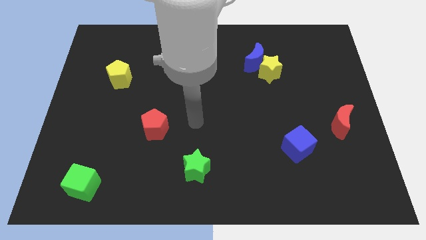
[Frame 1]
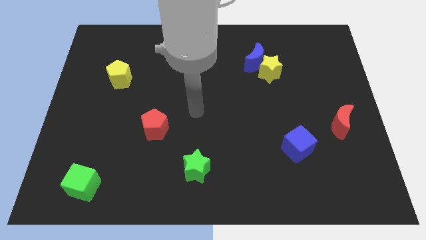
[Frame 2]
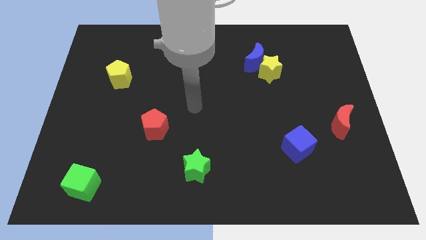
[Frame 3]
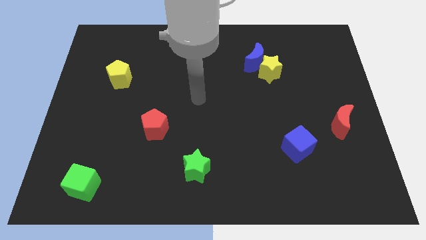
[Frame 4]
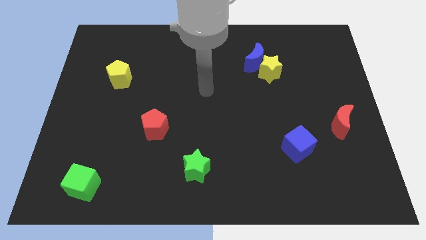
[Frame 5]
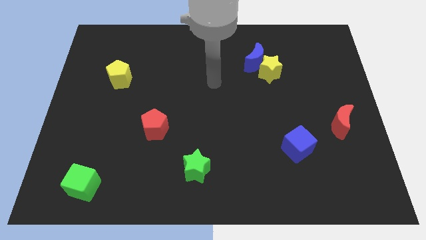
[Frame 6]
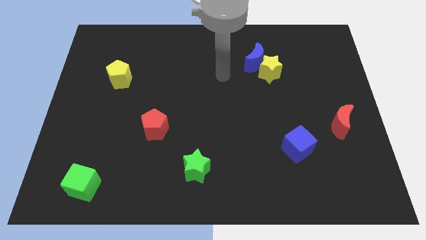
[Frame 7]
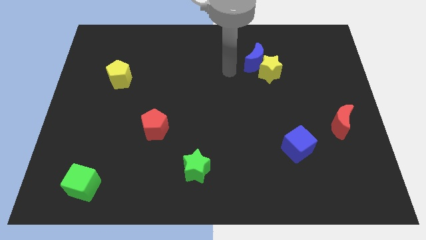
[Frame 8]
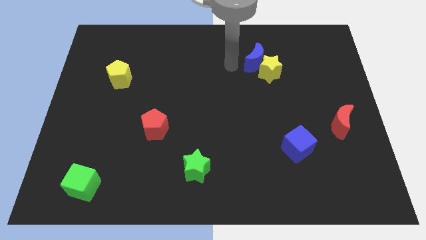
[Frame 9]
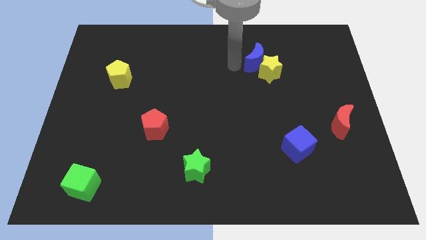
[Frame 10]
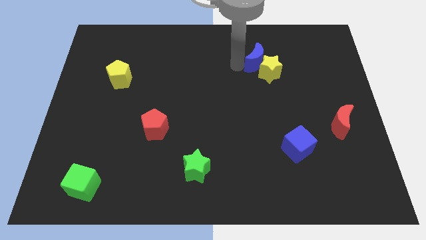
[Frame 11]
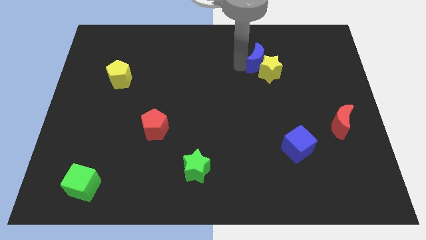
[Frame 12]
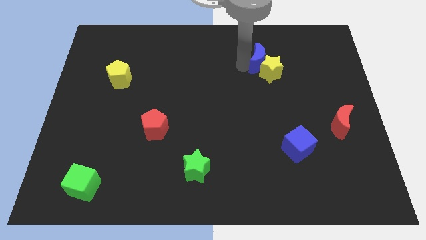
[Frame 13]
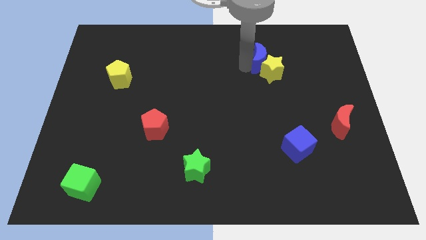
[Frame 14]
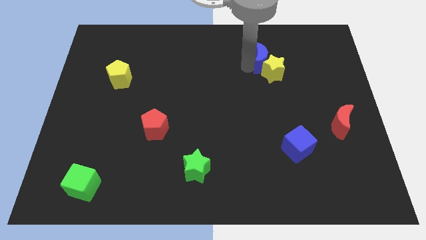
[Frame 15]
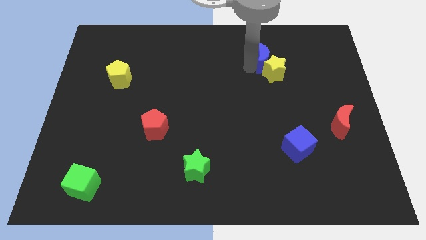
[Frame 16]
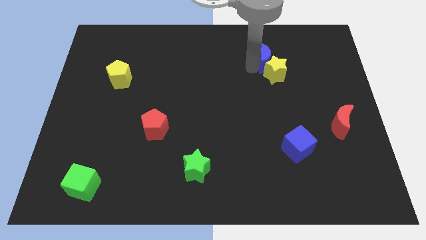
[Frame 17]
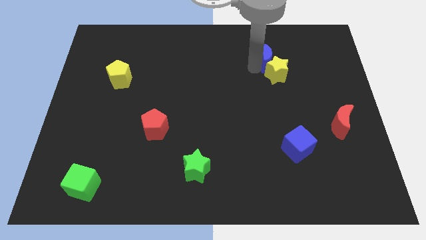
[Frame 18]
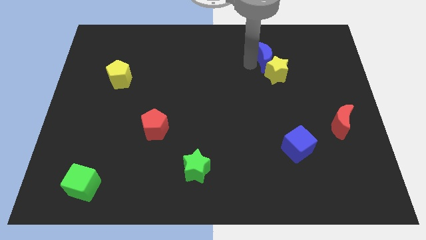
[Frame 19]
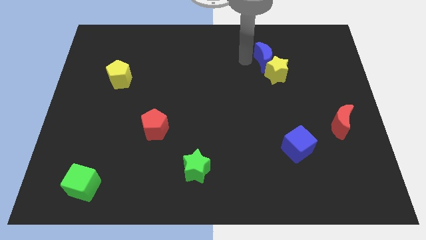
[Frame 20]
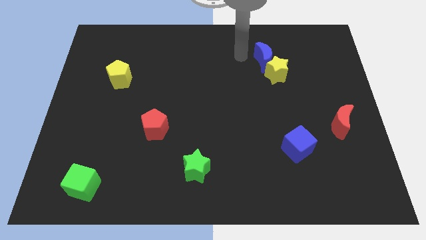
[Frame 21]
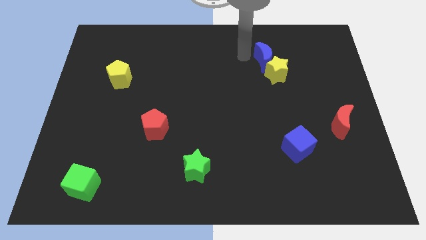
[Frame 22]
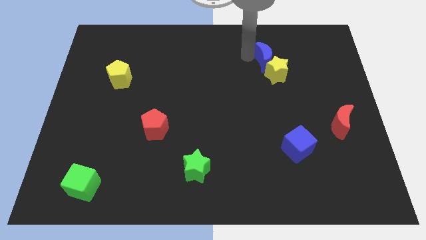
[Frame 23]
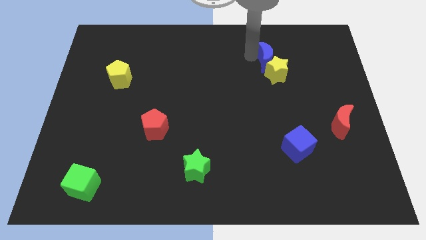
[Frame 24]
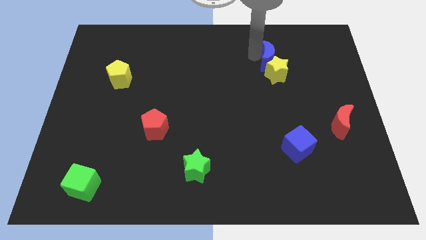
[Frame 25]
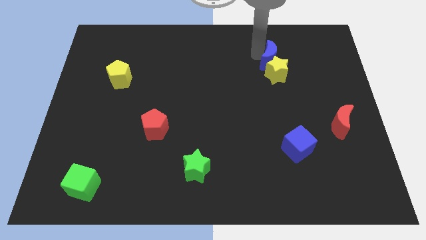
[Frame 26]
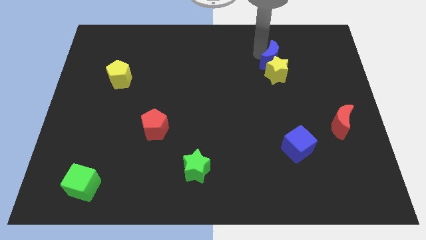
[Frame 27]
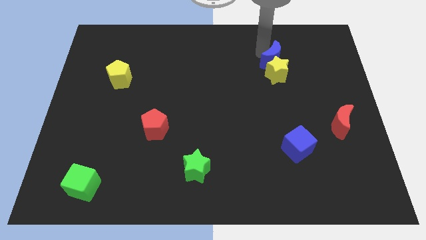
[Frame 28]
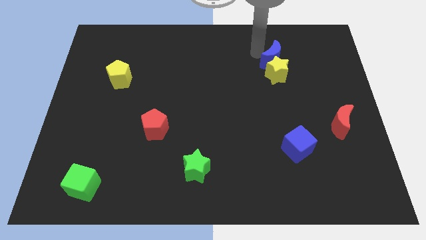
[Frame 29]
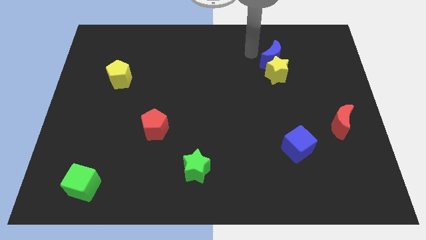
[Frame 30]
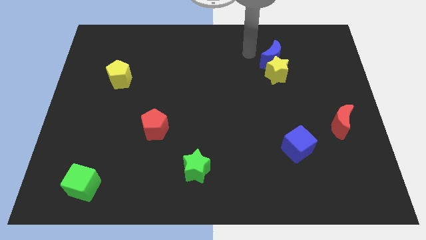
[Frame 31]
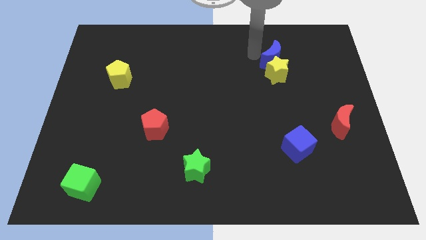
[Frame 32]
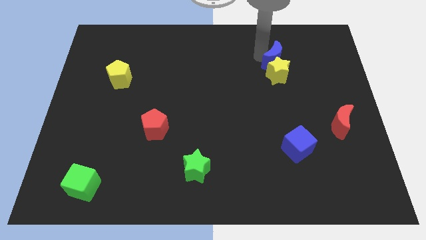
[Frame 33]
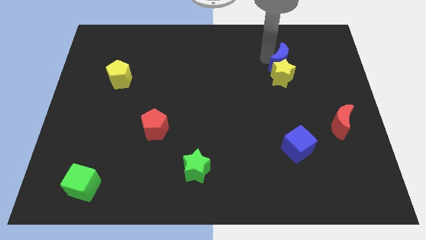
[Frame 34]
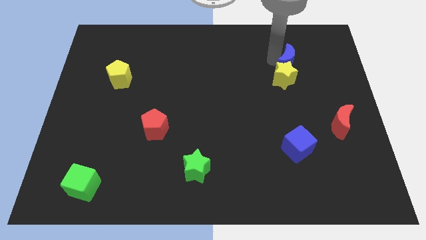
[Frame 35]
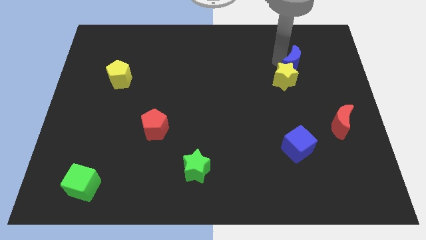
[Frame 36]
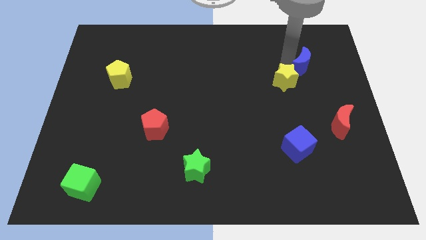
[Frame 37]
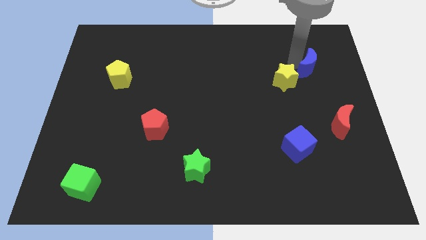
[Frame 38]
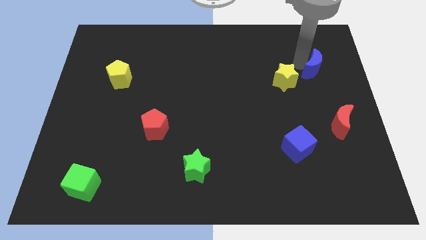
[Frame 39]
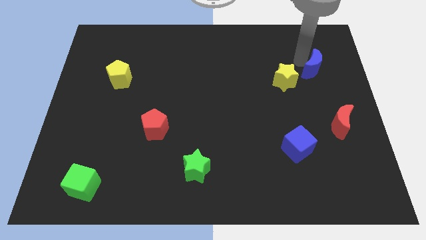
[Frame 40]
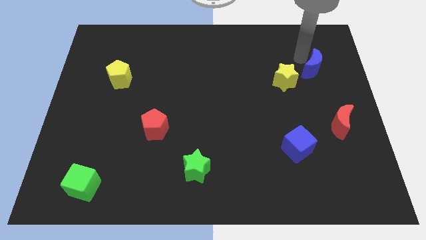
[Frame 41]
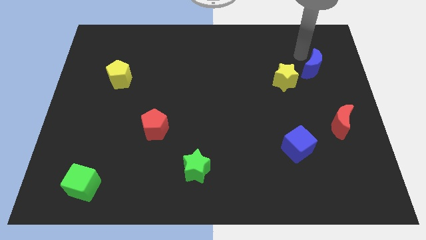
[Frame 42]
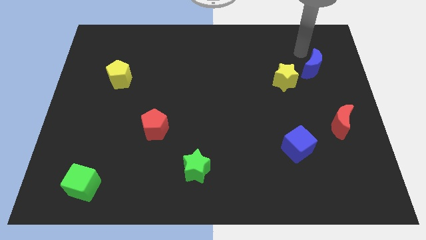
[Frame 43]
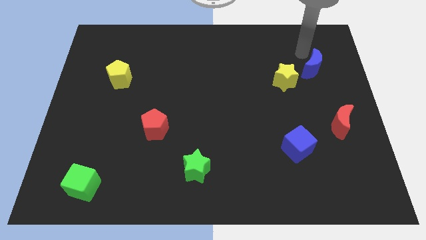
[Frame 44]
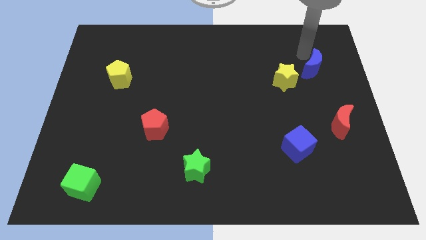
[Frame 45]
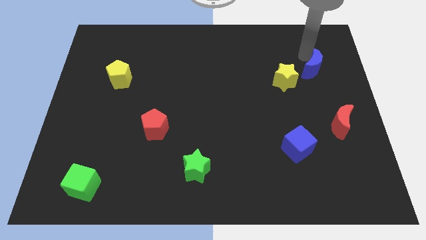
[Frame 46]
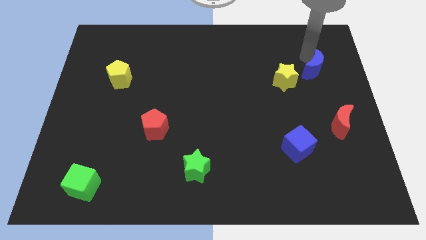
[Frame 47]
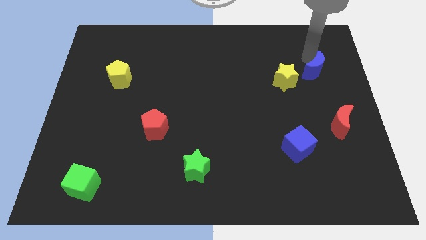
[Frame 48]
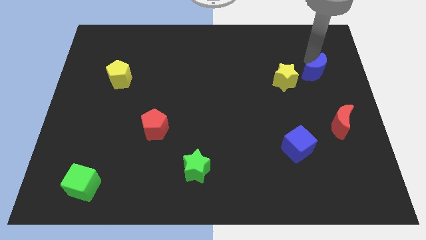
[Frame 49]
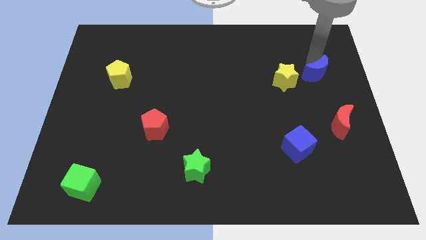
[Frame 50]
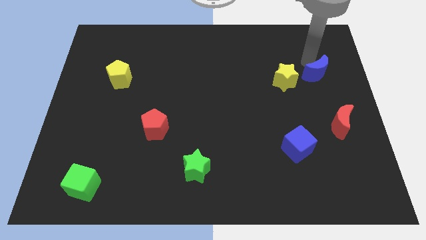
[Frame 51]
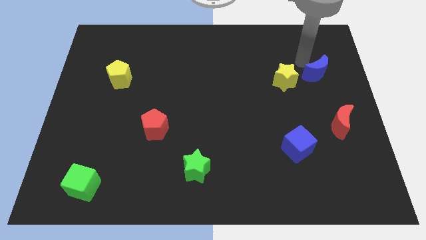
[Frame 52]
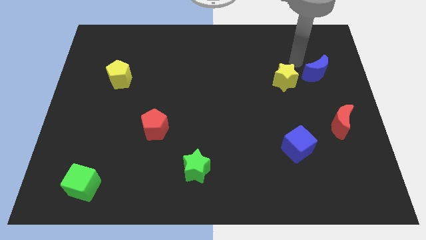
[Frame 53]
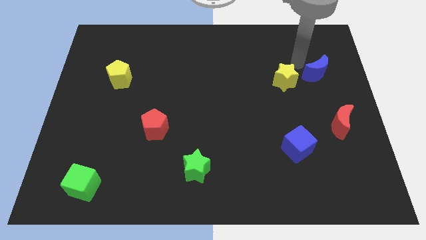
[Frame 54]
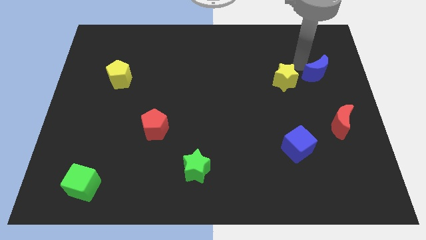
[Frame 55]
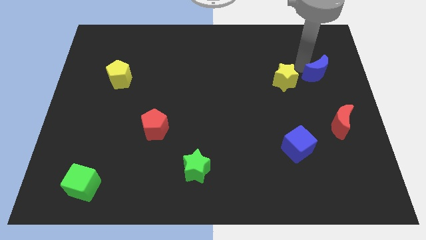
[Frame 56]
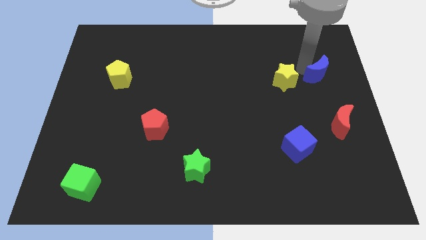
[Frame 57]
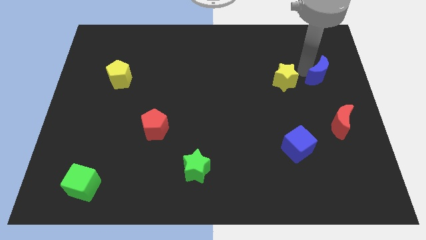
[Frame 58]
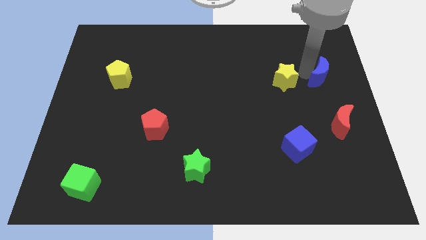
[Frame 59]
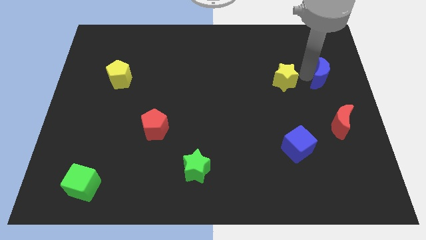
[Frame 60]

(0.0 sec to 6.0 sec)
move the blue moon to the center right

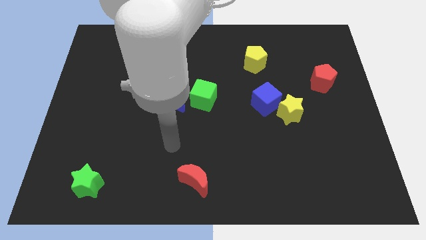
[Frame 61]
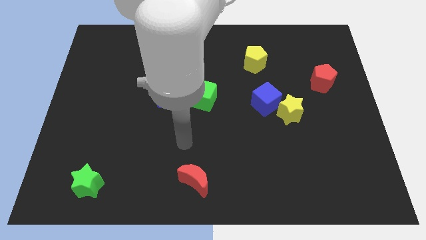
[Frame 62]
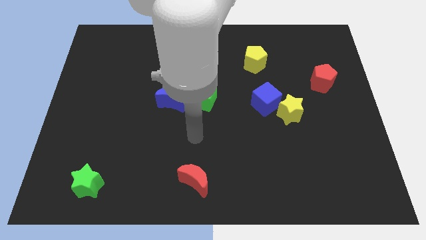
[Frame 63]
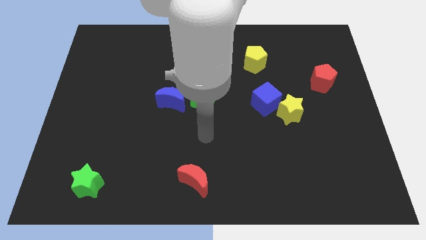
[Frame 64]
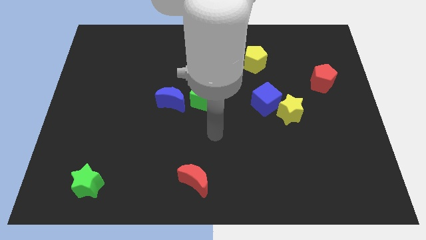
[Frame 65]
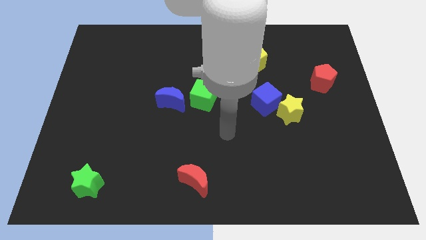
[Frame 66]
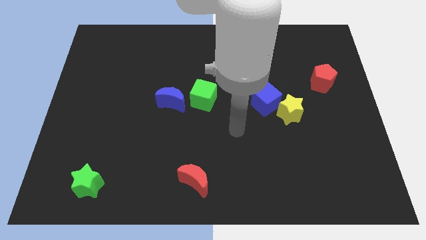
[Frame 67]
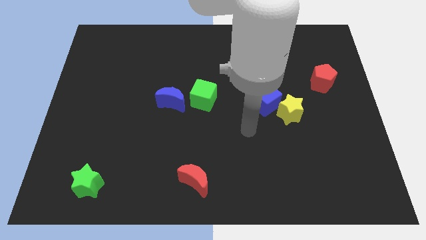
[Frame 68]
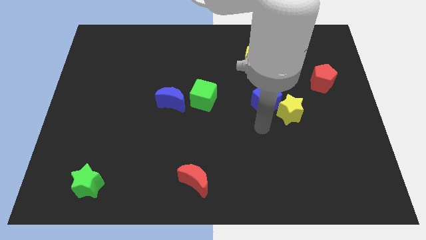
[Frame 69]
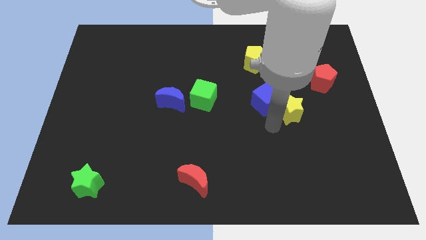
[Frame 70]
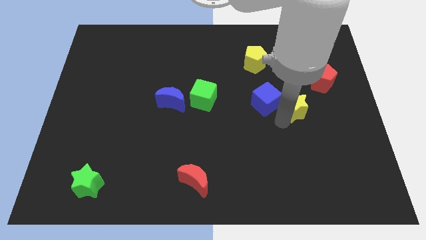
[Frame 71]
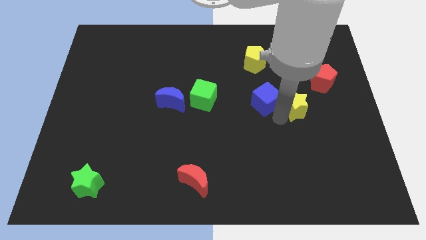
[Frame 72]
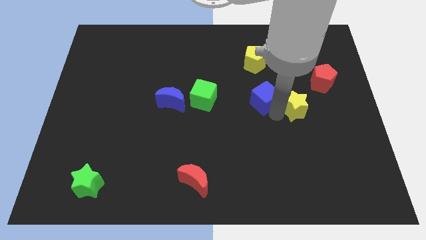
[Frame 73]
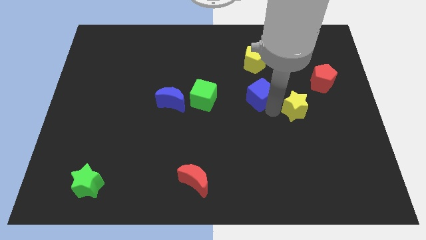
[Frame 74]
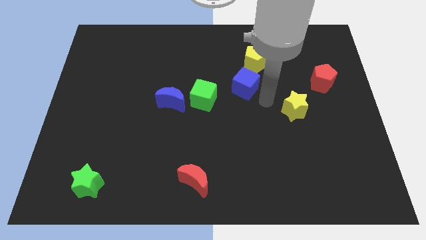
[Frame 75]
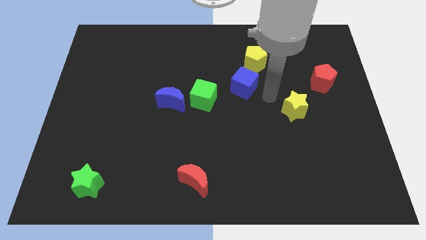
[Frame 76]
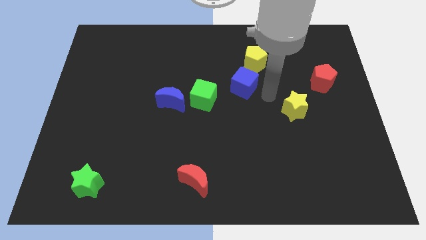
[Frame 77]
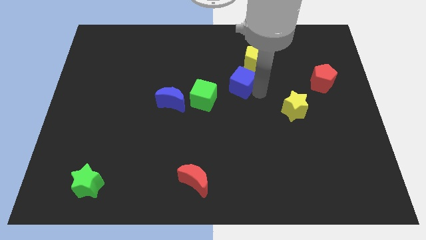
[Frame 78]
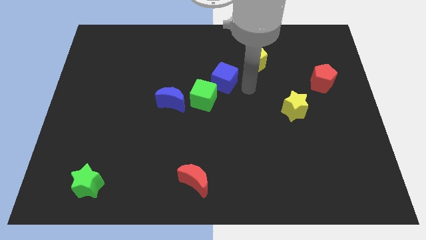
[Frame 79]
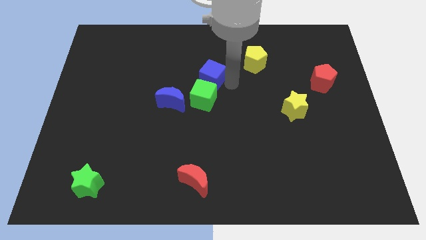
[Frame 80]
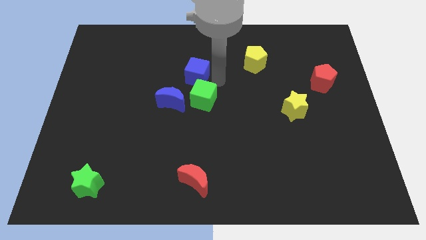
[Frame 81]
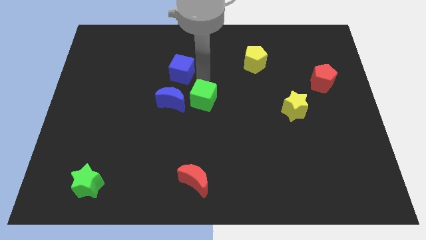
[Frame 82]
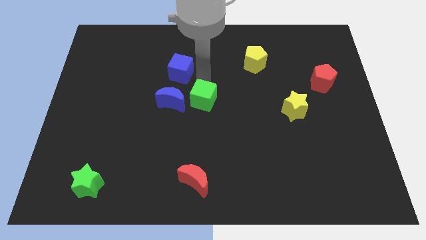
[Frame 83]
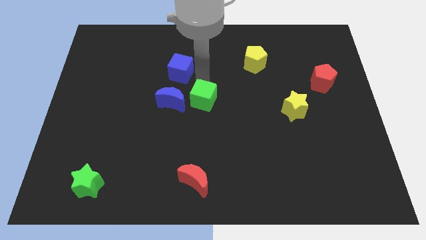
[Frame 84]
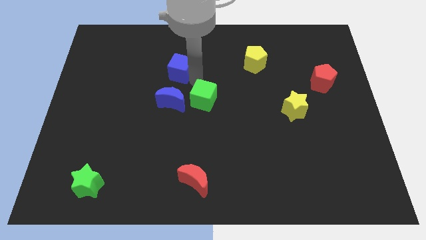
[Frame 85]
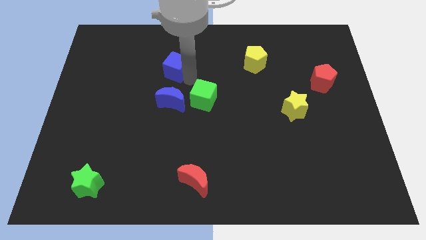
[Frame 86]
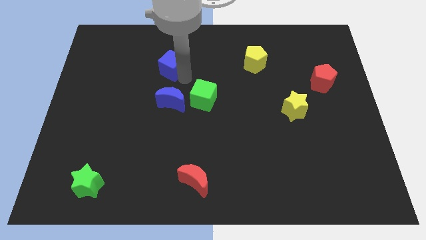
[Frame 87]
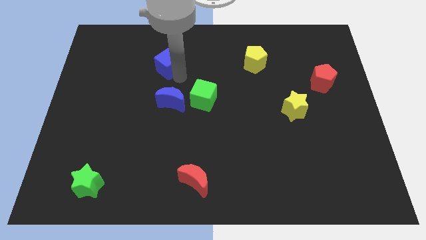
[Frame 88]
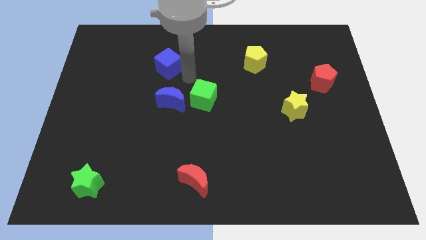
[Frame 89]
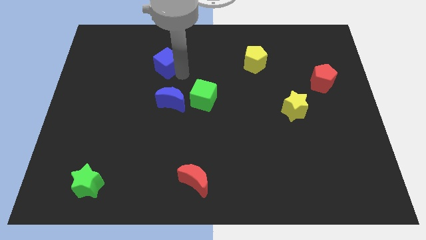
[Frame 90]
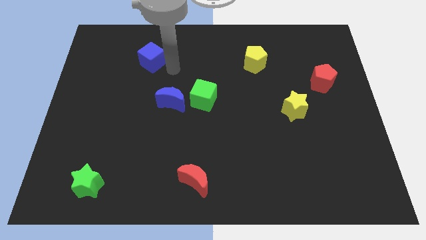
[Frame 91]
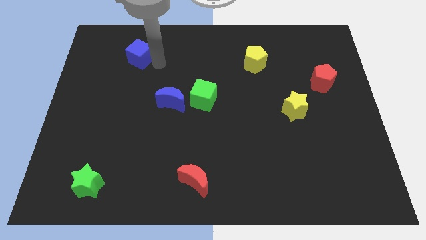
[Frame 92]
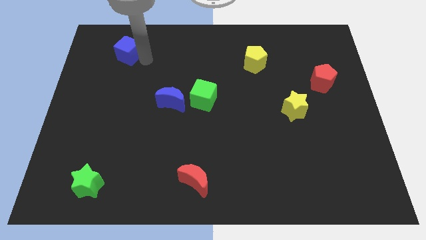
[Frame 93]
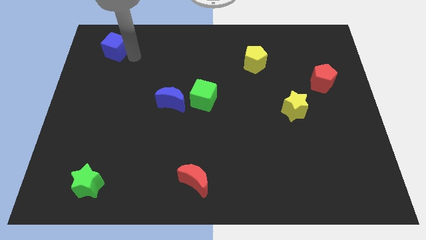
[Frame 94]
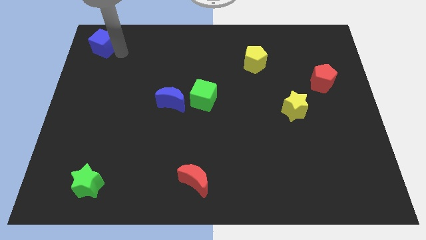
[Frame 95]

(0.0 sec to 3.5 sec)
slide the blue cube to the top left of the board
